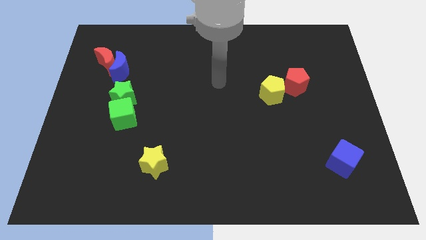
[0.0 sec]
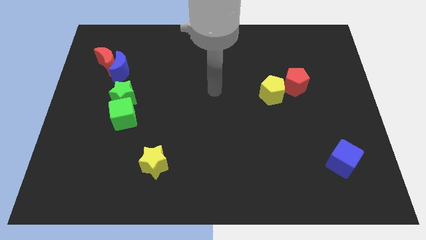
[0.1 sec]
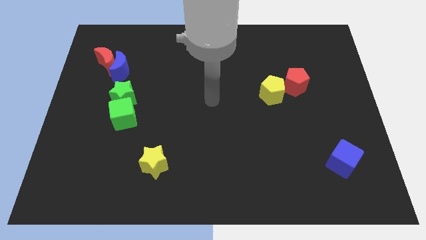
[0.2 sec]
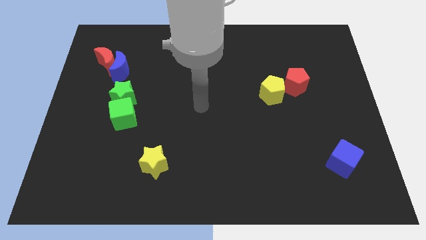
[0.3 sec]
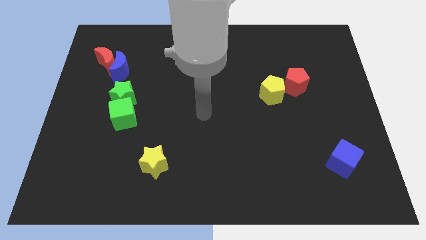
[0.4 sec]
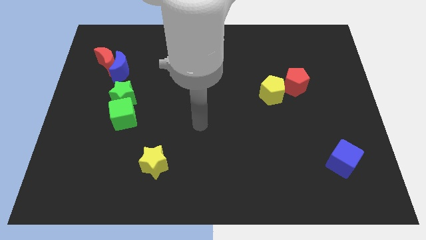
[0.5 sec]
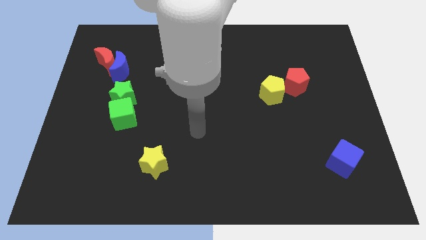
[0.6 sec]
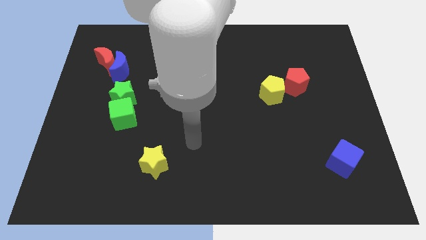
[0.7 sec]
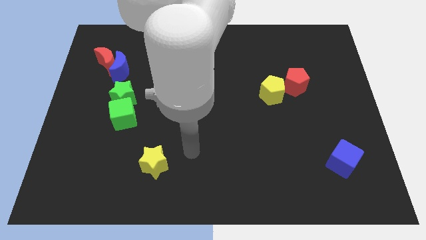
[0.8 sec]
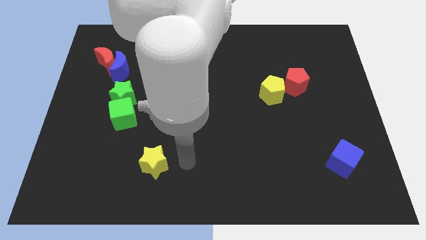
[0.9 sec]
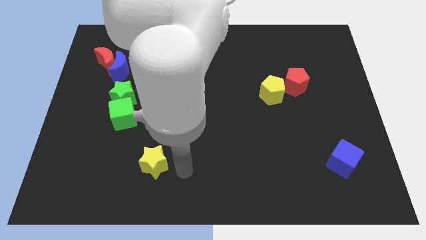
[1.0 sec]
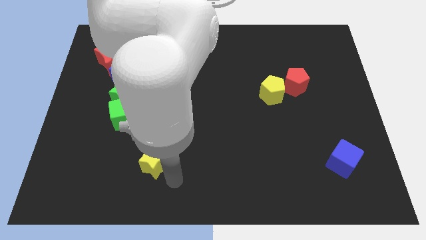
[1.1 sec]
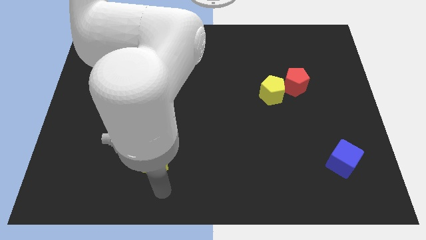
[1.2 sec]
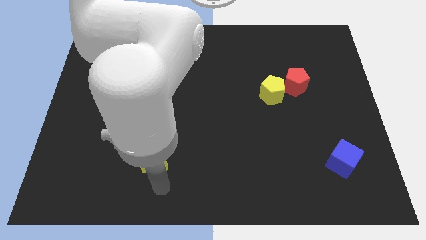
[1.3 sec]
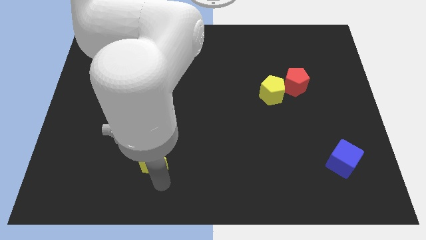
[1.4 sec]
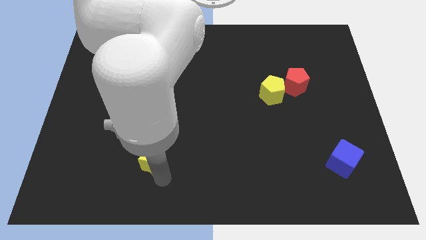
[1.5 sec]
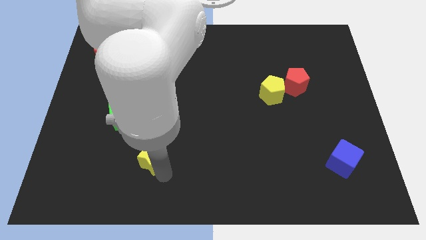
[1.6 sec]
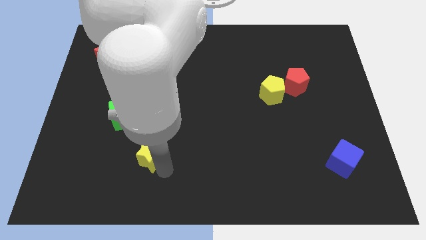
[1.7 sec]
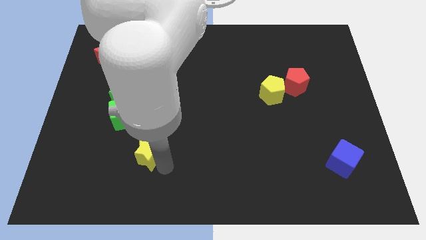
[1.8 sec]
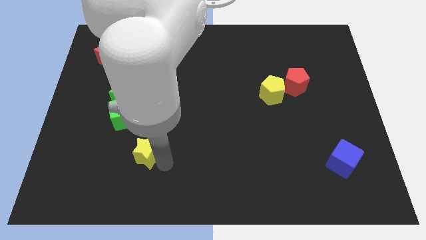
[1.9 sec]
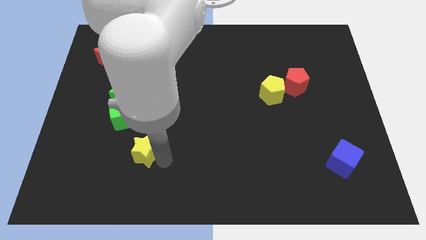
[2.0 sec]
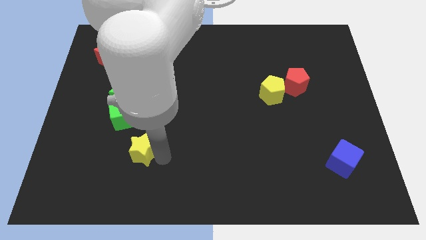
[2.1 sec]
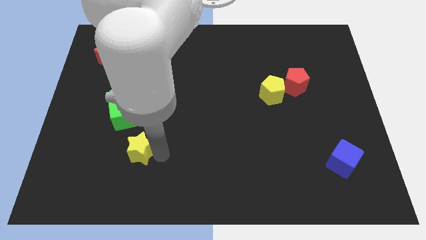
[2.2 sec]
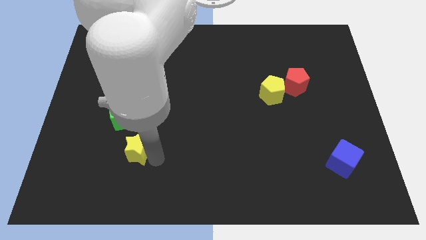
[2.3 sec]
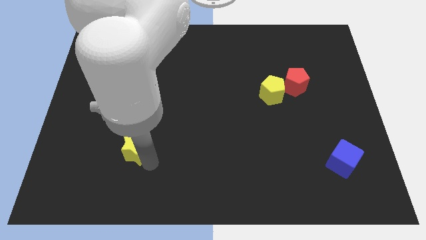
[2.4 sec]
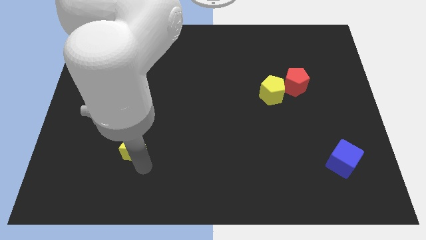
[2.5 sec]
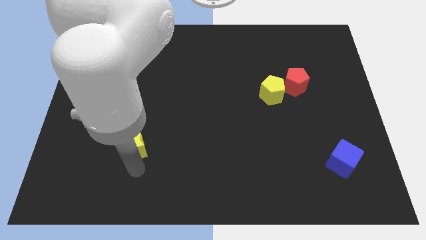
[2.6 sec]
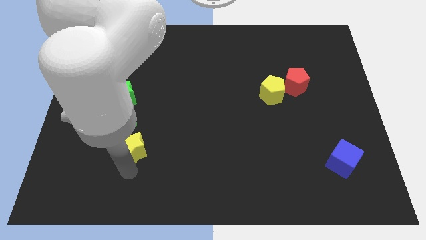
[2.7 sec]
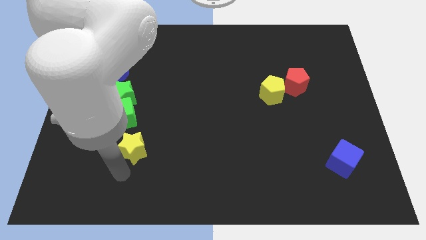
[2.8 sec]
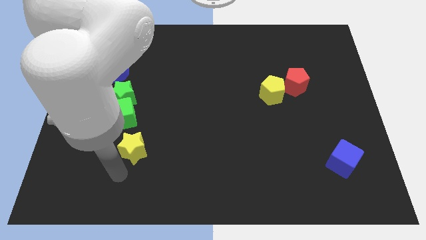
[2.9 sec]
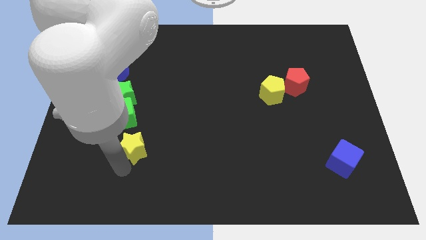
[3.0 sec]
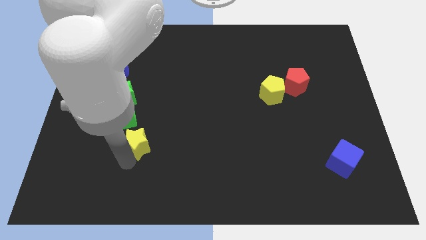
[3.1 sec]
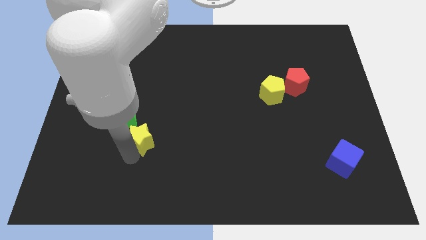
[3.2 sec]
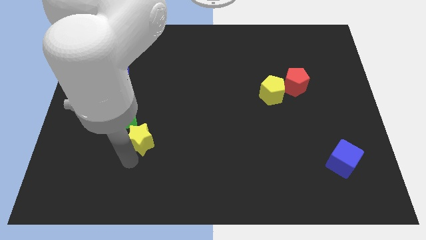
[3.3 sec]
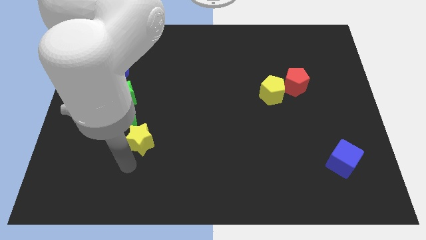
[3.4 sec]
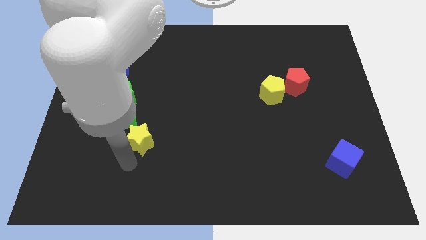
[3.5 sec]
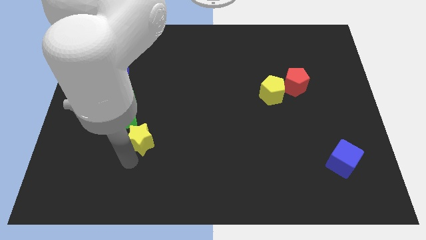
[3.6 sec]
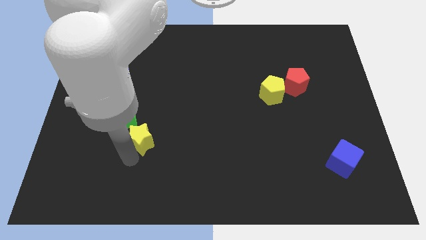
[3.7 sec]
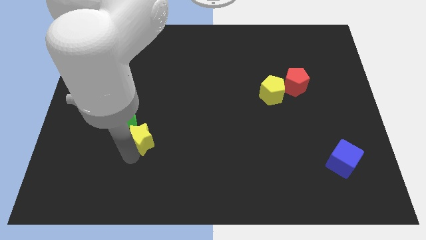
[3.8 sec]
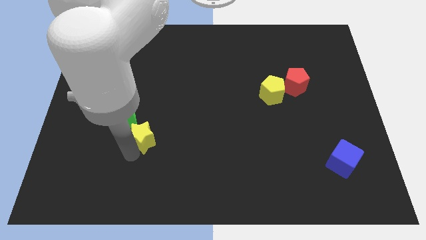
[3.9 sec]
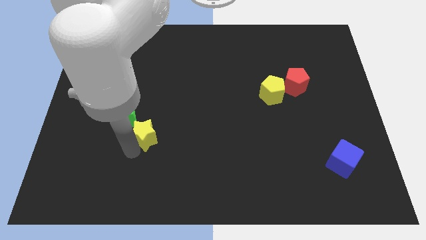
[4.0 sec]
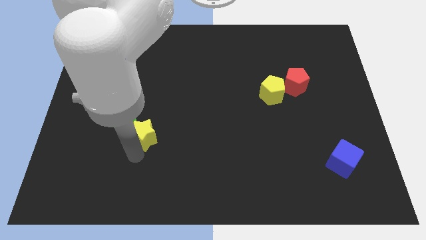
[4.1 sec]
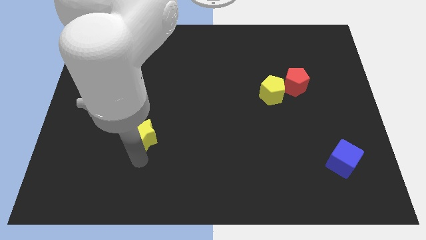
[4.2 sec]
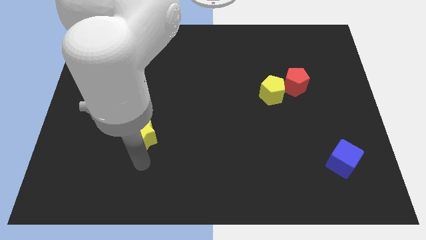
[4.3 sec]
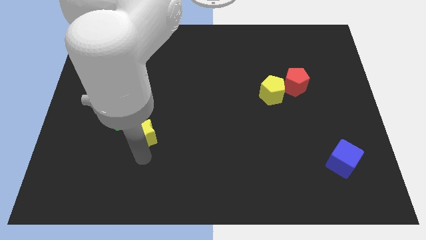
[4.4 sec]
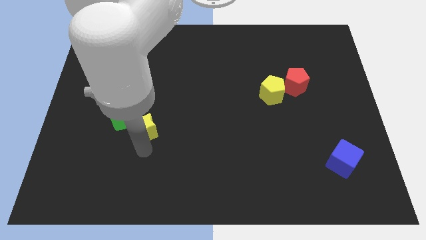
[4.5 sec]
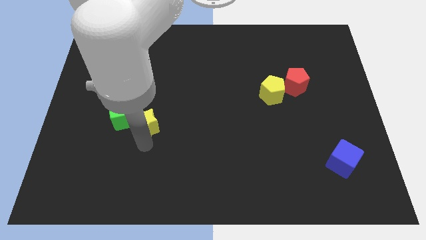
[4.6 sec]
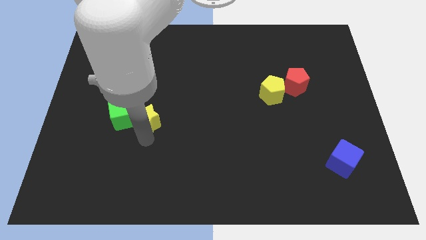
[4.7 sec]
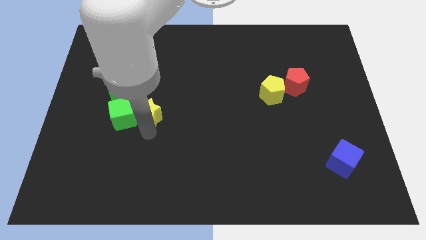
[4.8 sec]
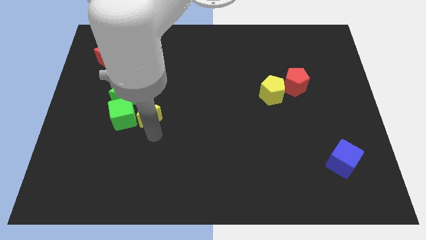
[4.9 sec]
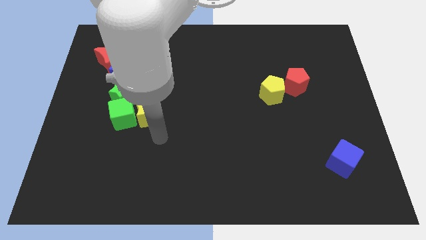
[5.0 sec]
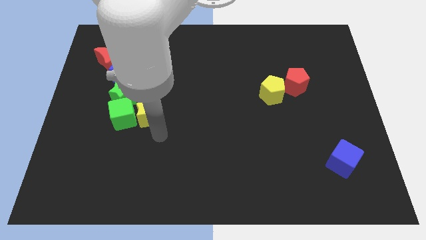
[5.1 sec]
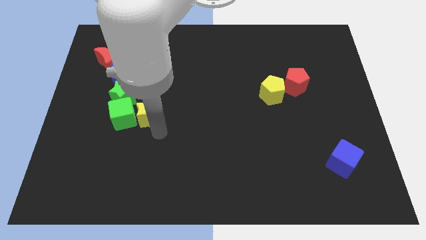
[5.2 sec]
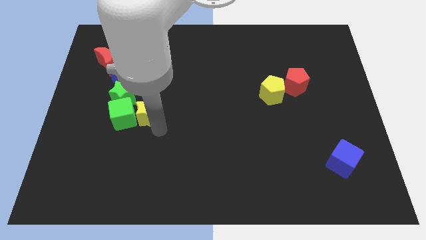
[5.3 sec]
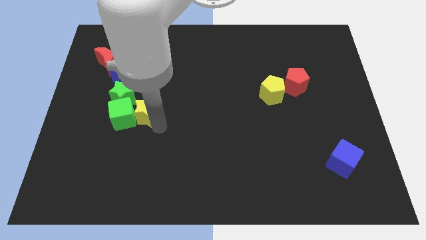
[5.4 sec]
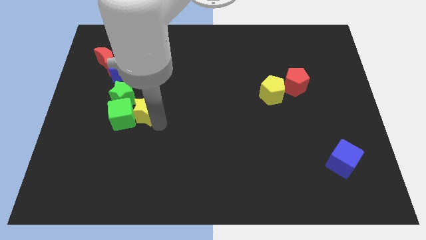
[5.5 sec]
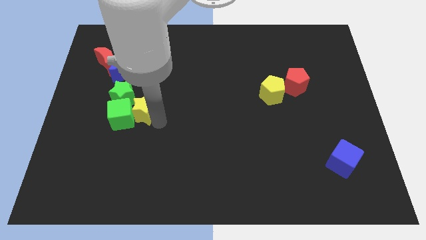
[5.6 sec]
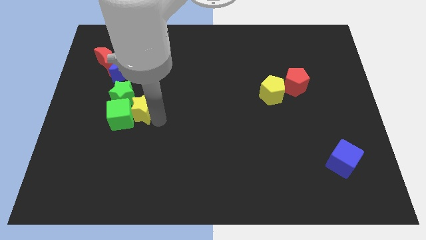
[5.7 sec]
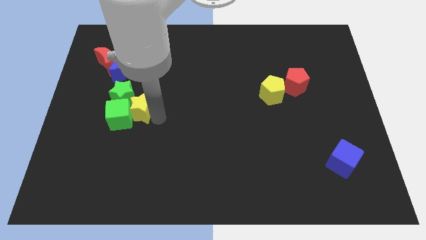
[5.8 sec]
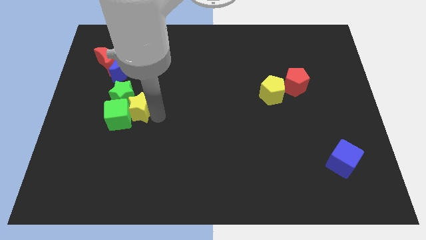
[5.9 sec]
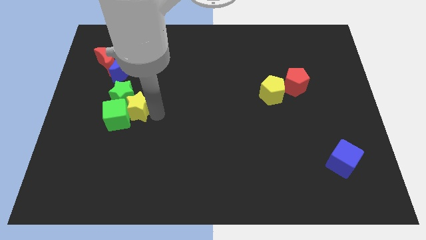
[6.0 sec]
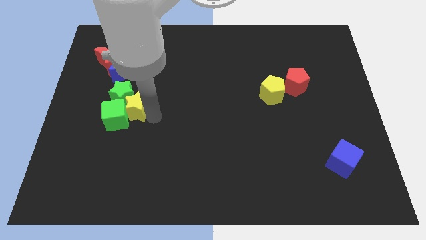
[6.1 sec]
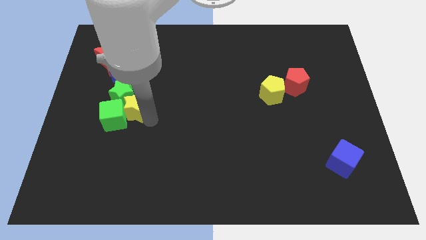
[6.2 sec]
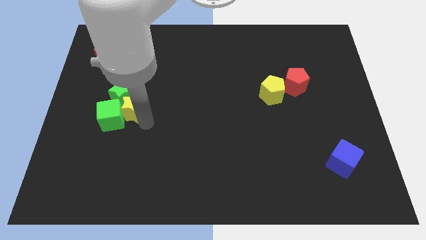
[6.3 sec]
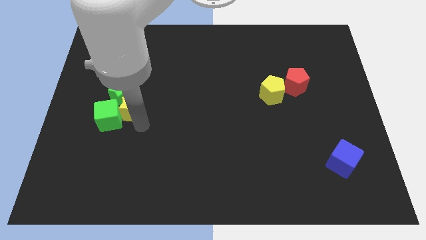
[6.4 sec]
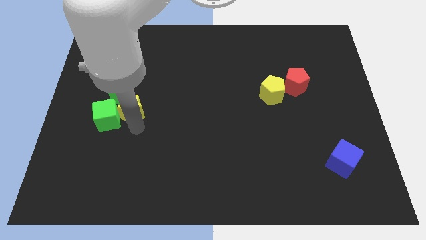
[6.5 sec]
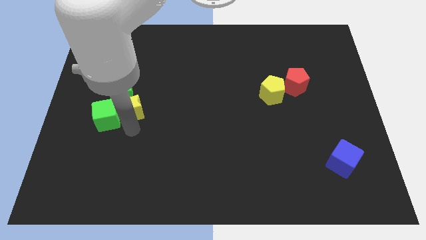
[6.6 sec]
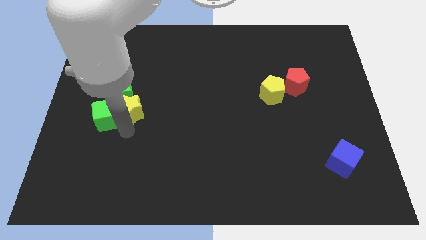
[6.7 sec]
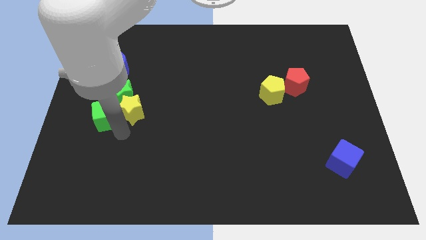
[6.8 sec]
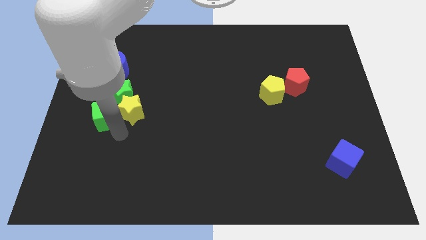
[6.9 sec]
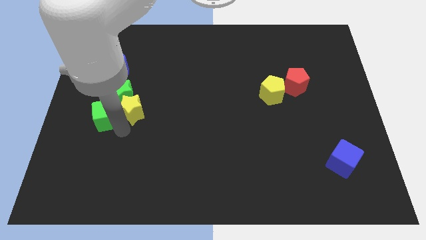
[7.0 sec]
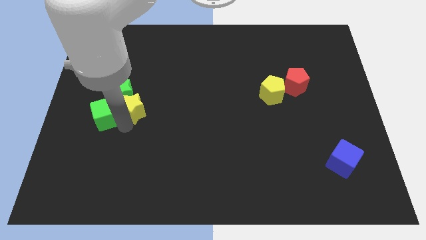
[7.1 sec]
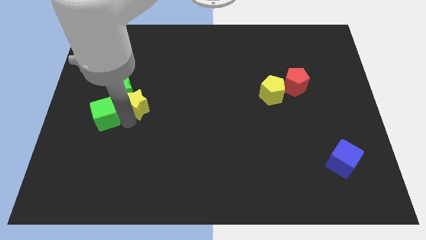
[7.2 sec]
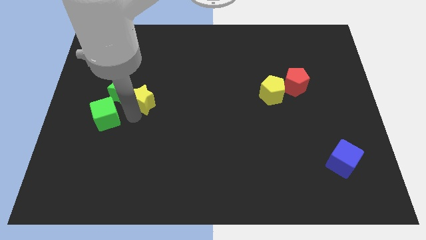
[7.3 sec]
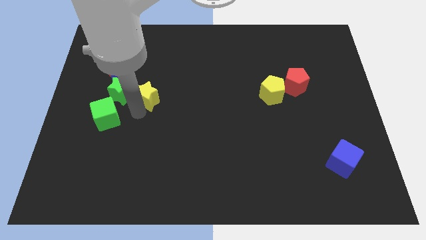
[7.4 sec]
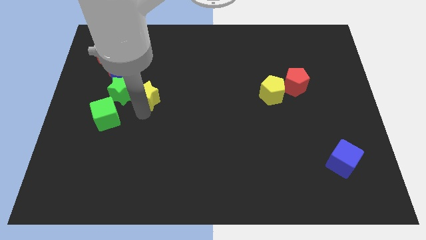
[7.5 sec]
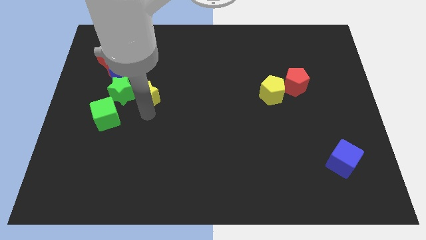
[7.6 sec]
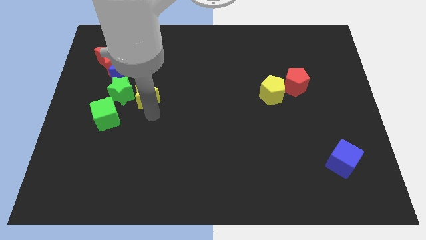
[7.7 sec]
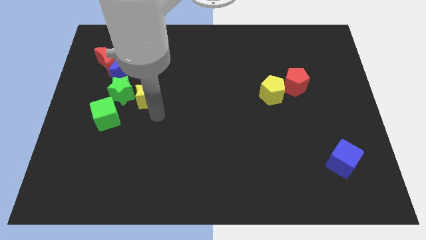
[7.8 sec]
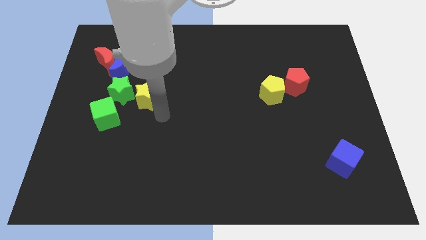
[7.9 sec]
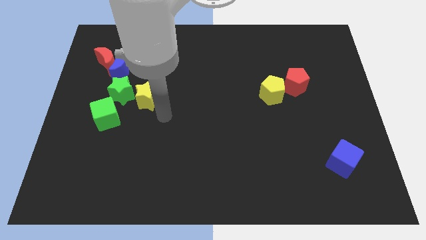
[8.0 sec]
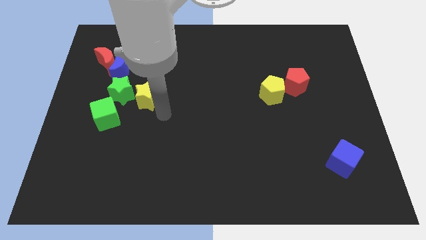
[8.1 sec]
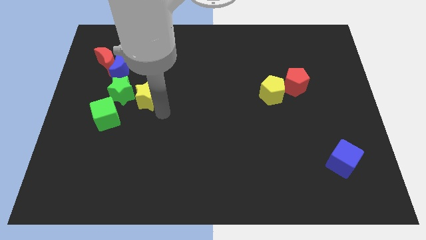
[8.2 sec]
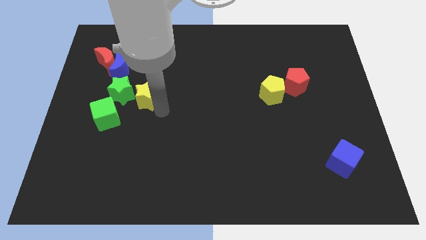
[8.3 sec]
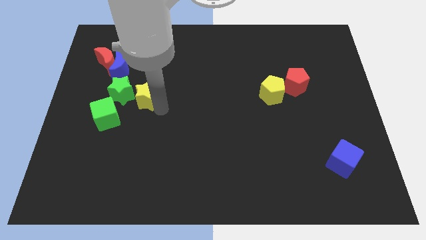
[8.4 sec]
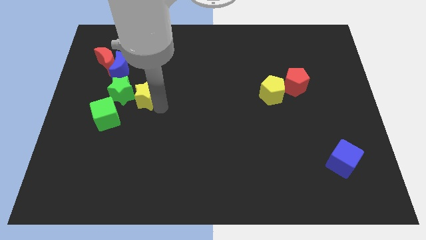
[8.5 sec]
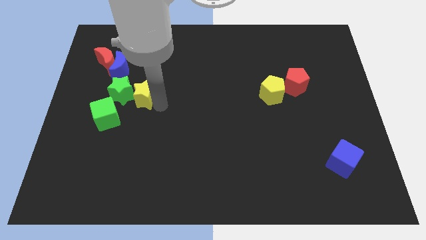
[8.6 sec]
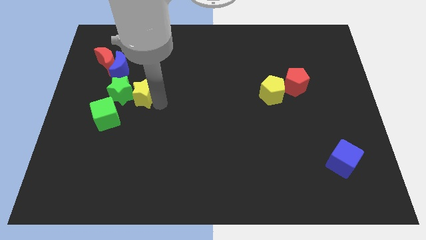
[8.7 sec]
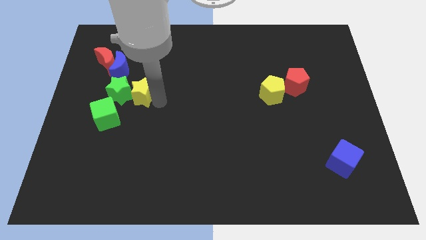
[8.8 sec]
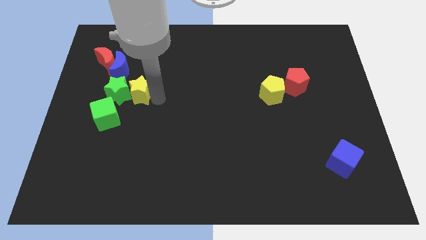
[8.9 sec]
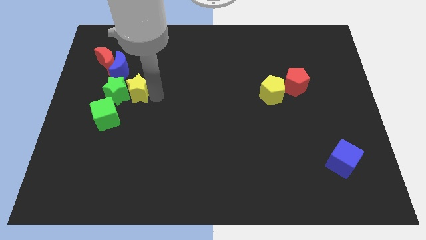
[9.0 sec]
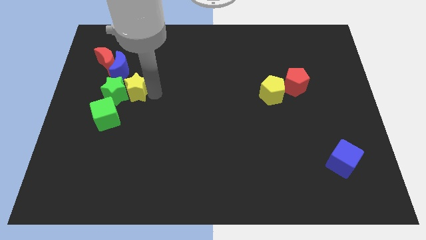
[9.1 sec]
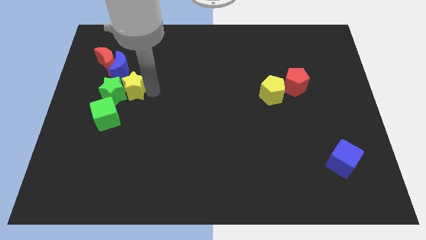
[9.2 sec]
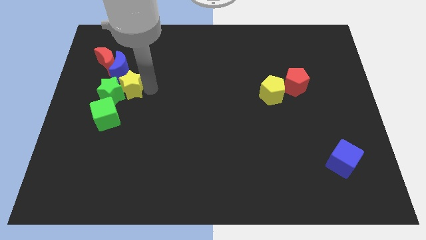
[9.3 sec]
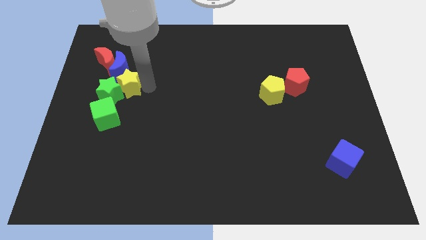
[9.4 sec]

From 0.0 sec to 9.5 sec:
push the yellow star next to the blue moon
